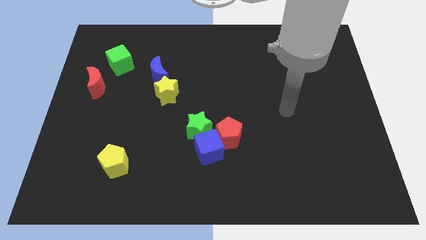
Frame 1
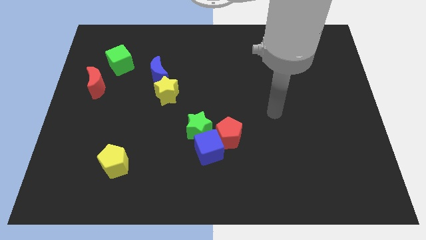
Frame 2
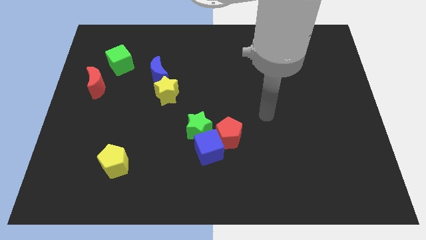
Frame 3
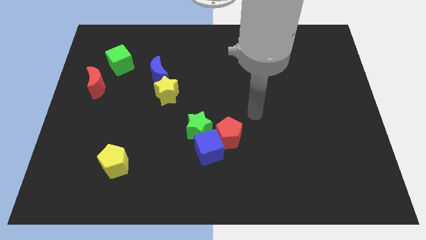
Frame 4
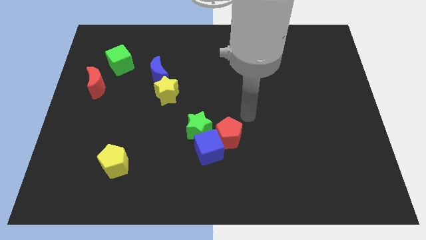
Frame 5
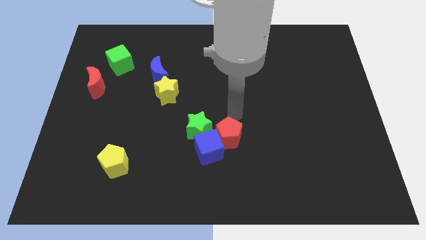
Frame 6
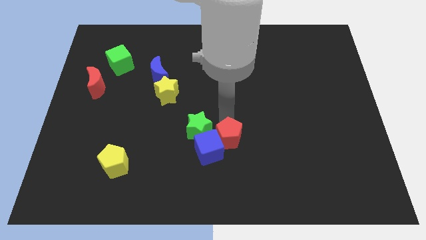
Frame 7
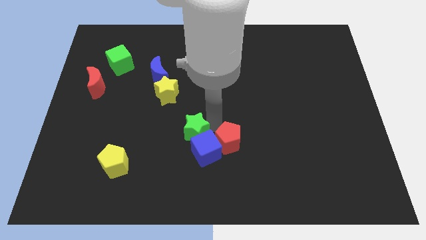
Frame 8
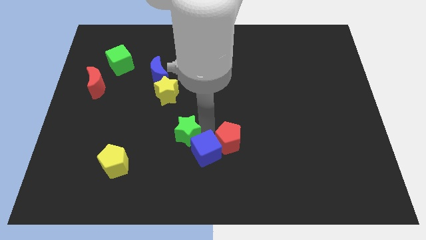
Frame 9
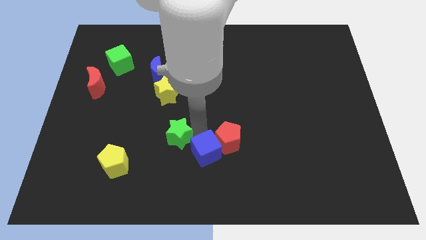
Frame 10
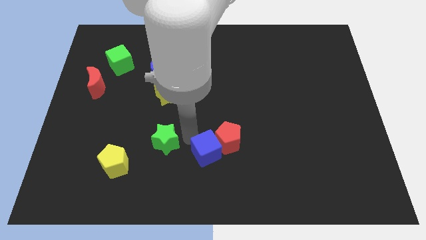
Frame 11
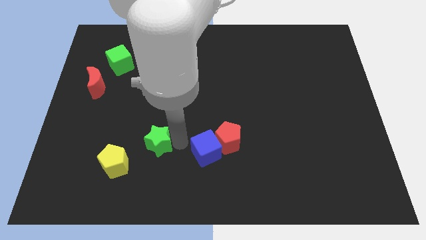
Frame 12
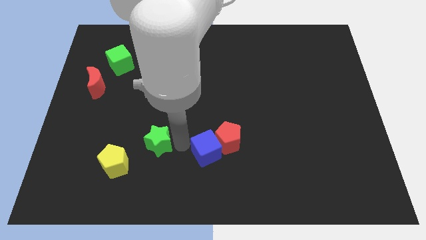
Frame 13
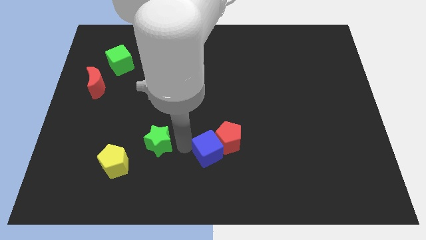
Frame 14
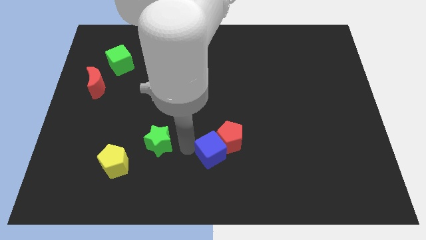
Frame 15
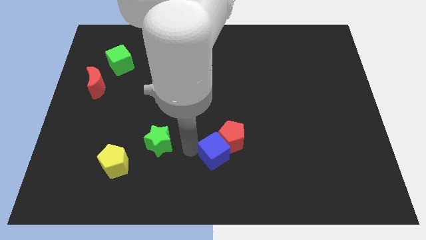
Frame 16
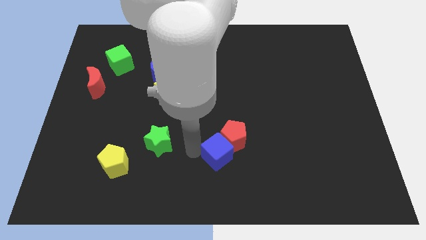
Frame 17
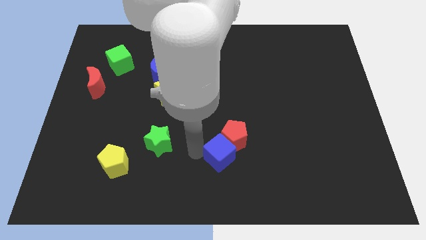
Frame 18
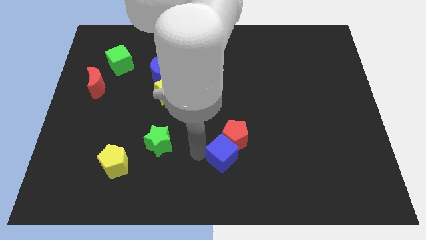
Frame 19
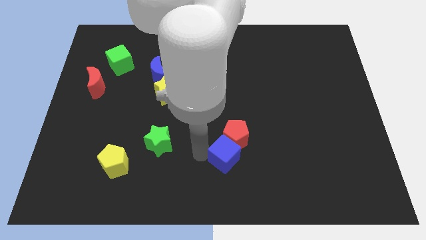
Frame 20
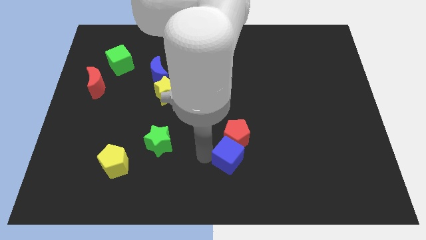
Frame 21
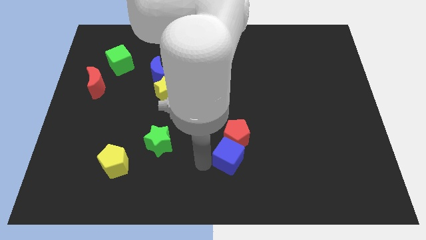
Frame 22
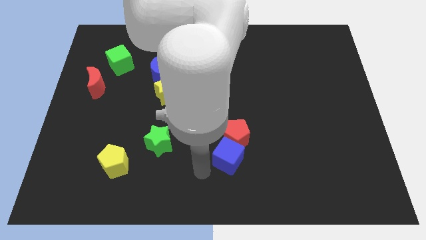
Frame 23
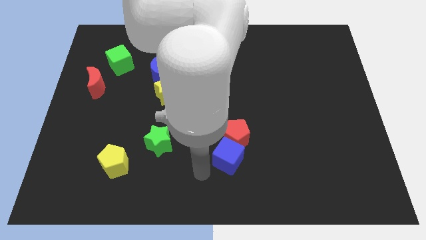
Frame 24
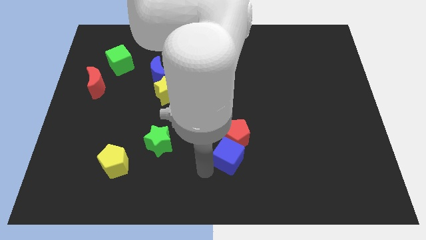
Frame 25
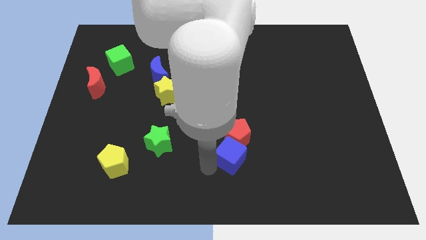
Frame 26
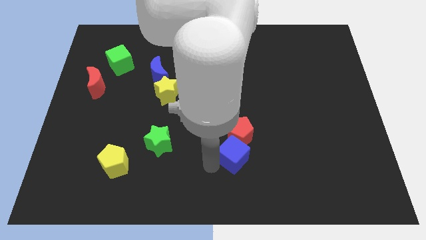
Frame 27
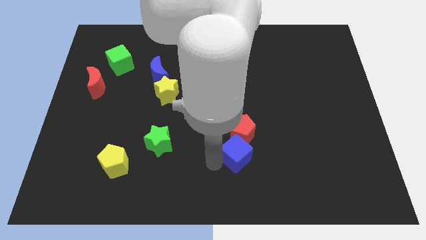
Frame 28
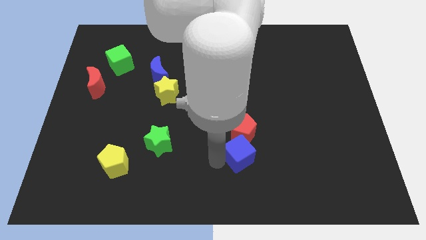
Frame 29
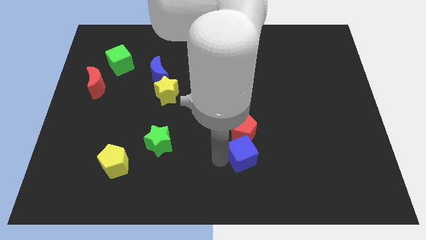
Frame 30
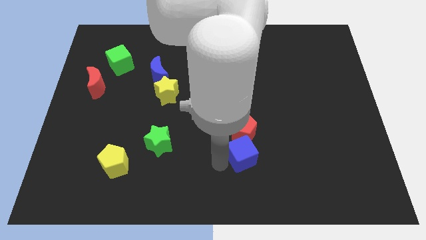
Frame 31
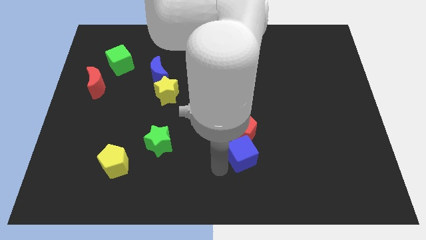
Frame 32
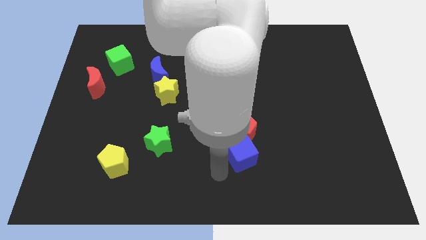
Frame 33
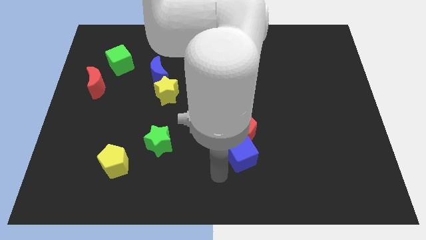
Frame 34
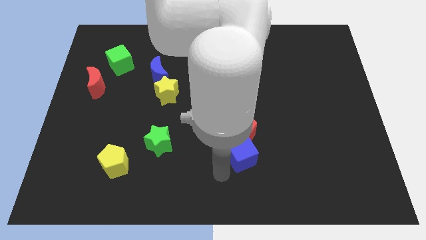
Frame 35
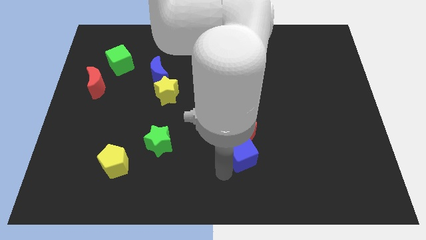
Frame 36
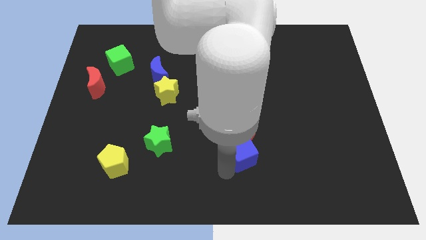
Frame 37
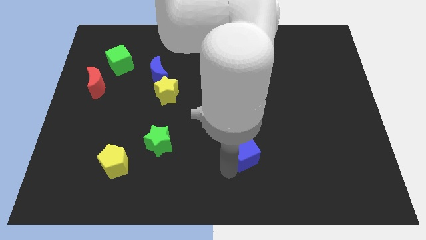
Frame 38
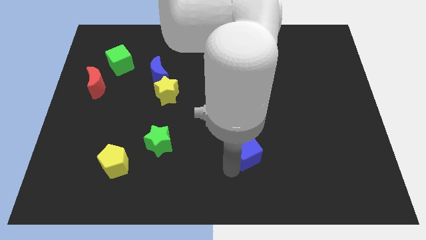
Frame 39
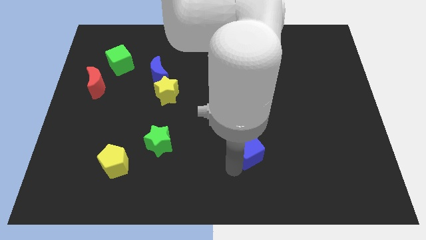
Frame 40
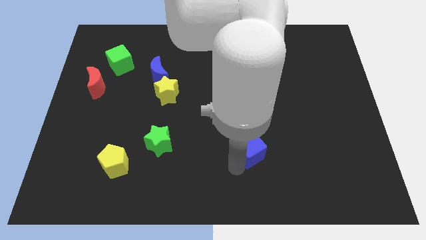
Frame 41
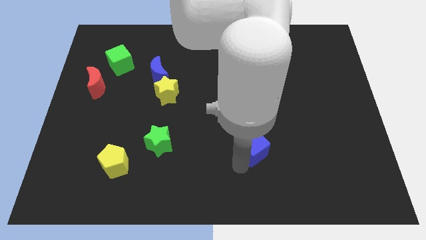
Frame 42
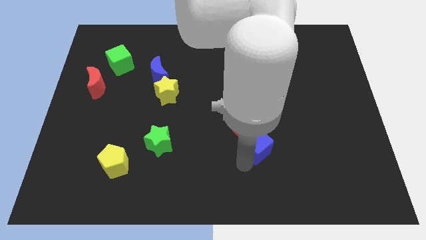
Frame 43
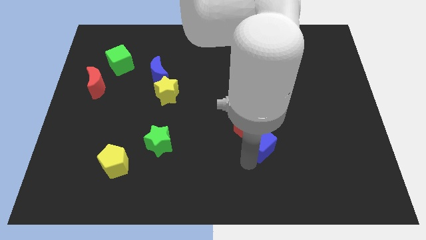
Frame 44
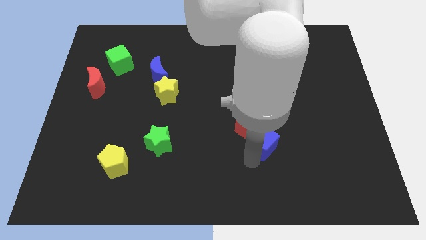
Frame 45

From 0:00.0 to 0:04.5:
slide the blue cube somewhat upwards and then to the right

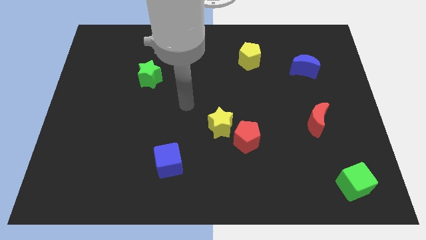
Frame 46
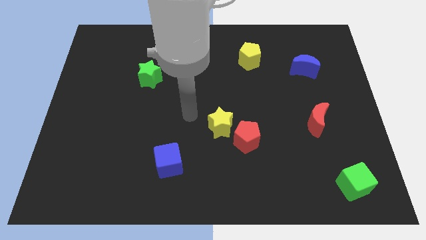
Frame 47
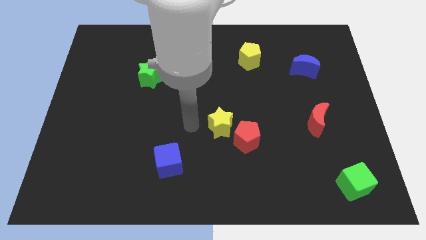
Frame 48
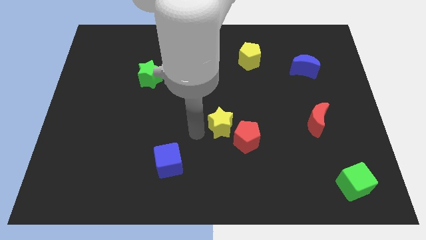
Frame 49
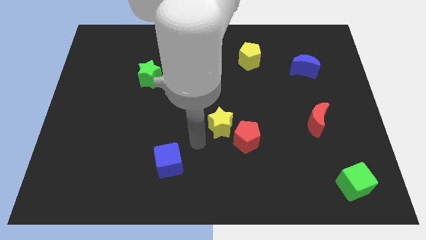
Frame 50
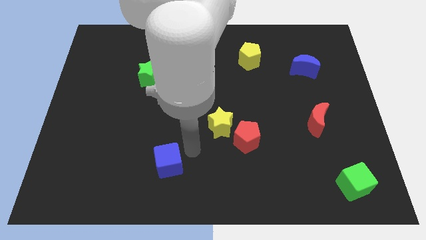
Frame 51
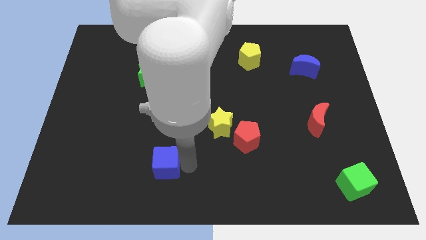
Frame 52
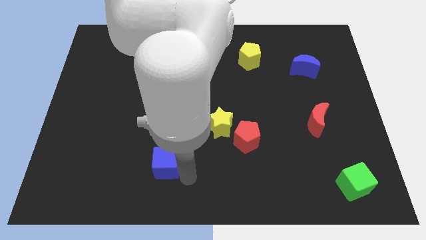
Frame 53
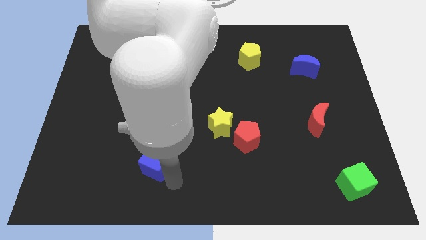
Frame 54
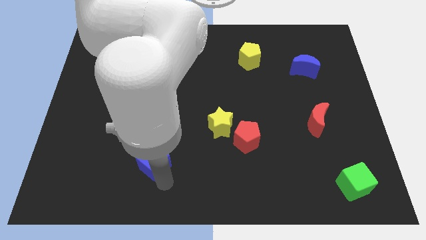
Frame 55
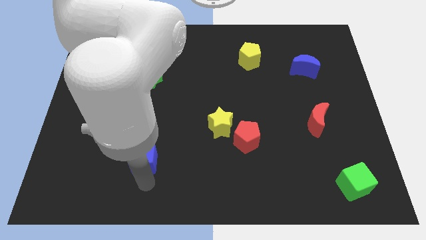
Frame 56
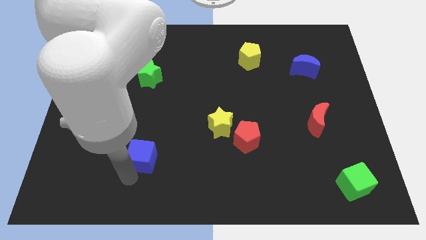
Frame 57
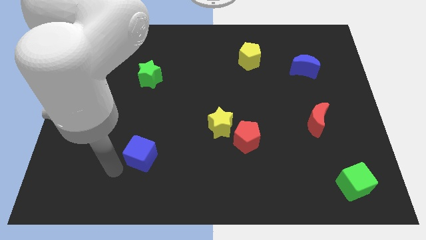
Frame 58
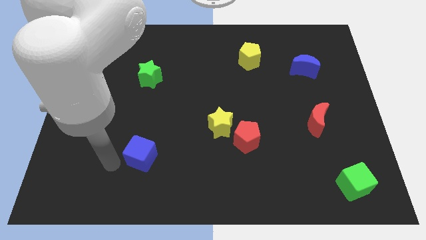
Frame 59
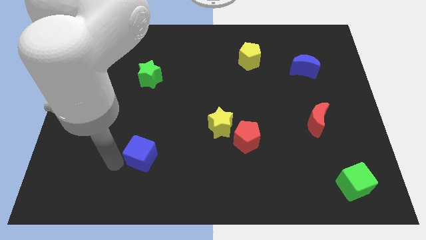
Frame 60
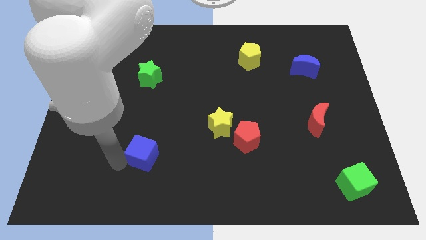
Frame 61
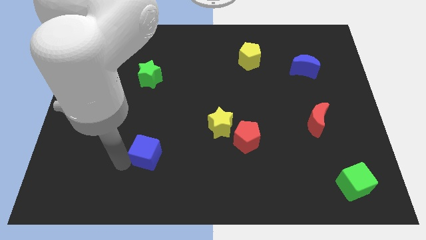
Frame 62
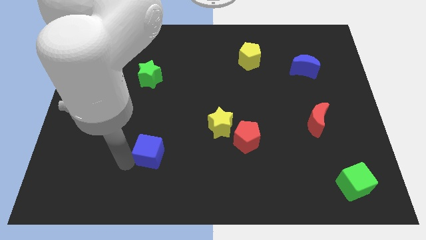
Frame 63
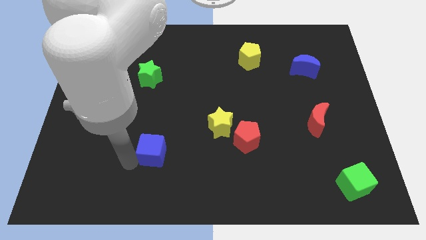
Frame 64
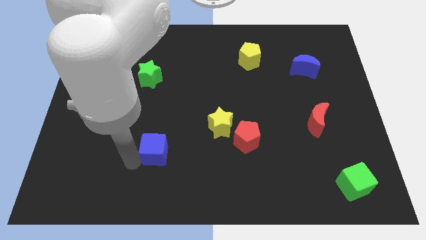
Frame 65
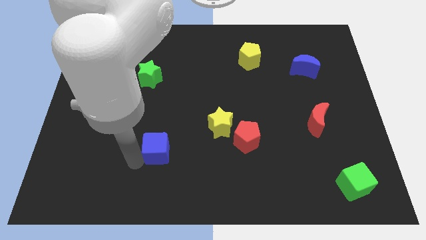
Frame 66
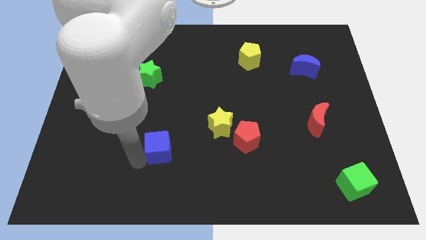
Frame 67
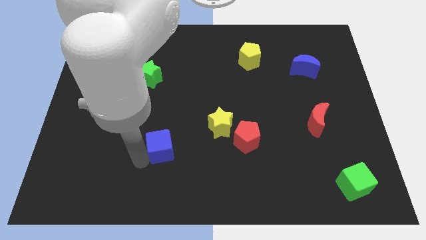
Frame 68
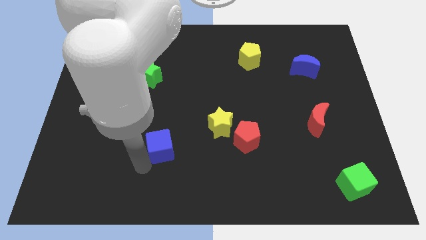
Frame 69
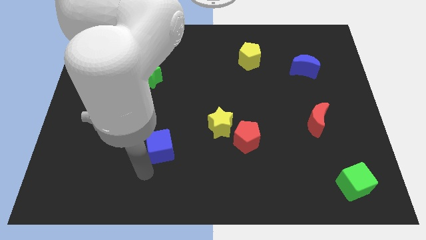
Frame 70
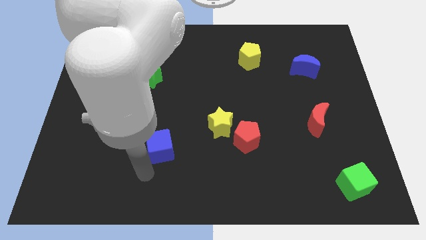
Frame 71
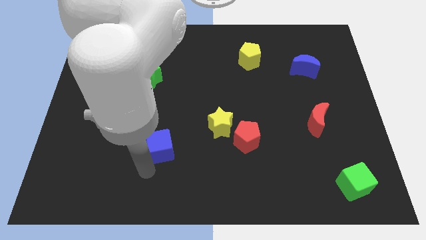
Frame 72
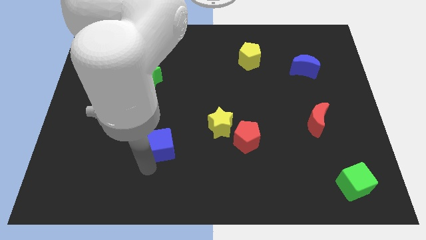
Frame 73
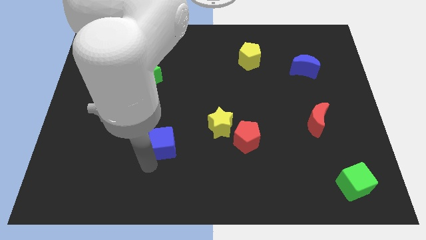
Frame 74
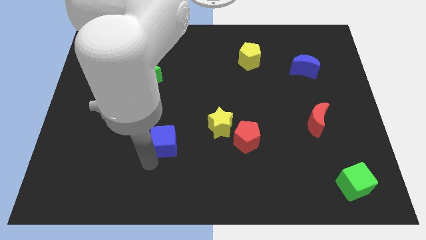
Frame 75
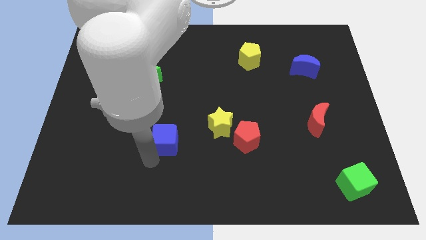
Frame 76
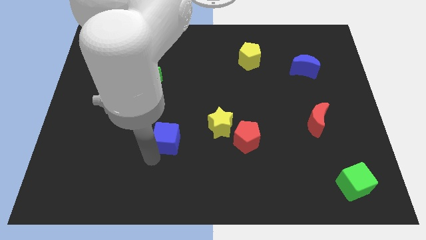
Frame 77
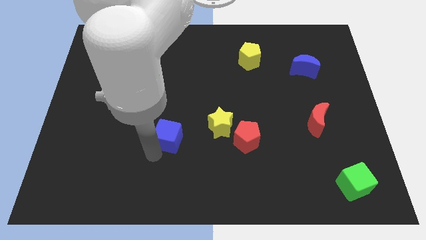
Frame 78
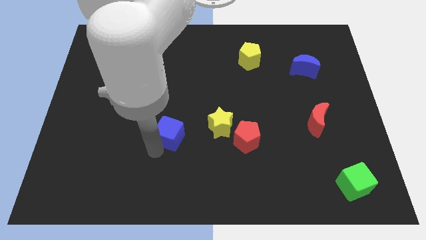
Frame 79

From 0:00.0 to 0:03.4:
slide the blue cube a little bit up
